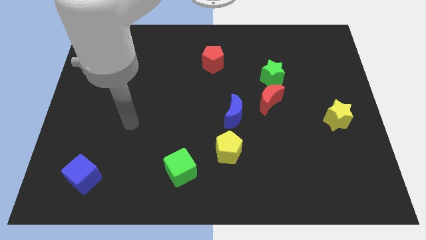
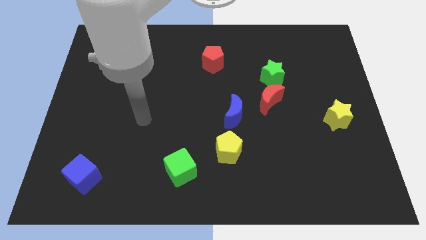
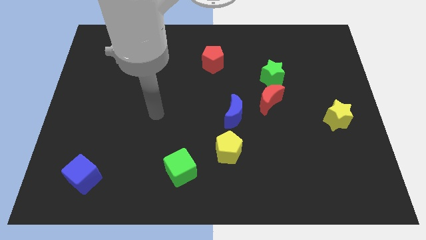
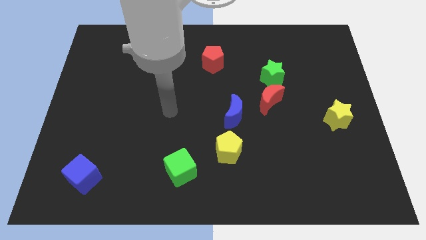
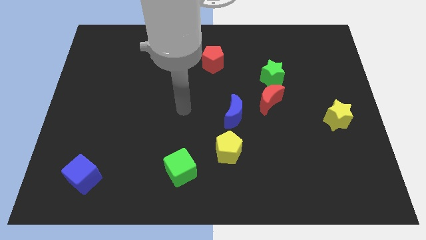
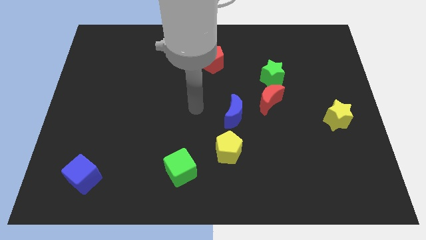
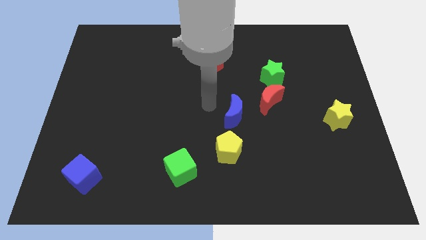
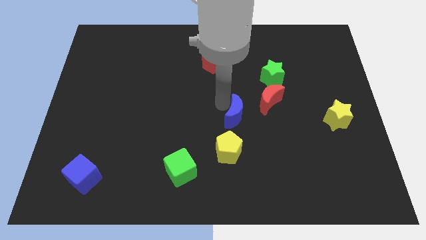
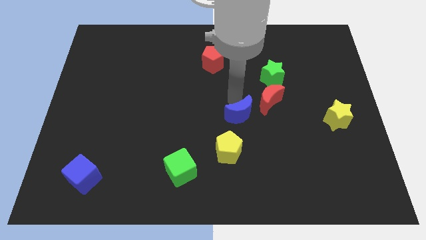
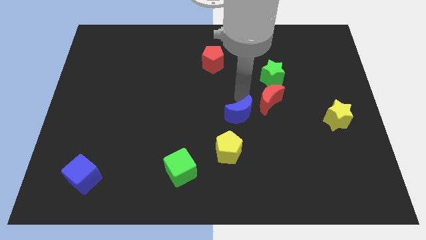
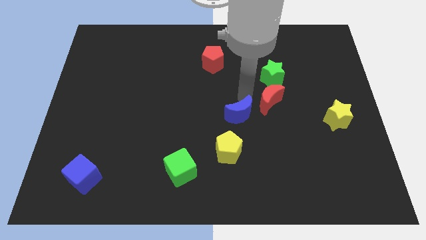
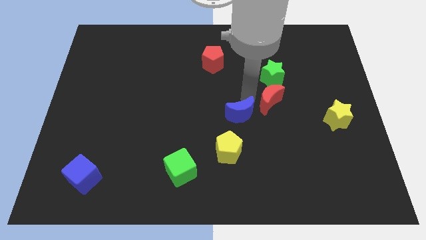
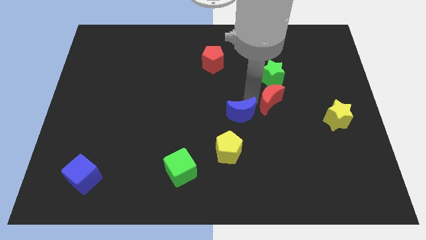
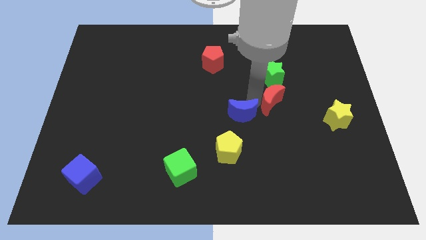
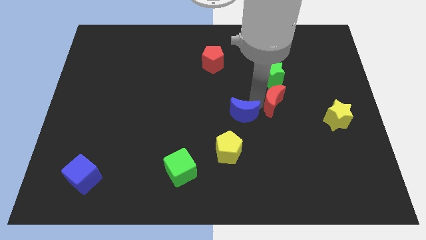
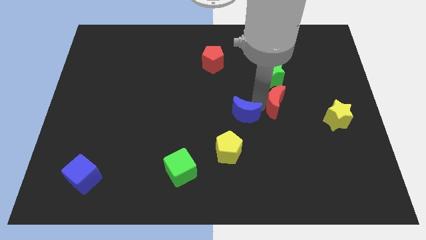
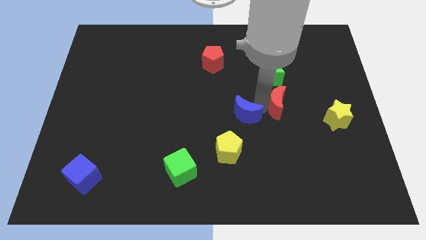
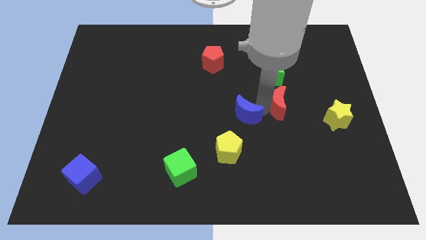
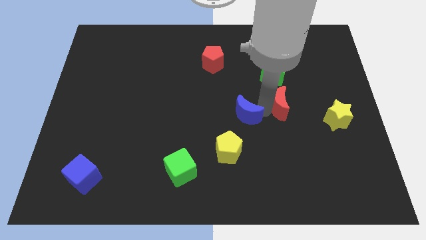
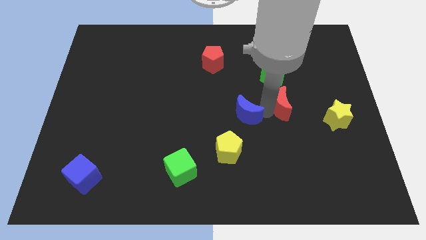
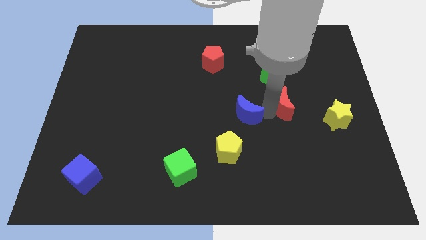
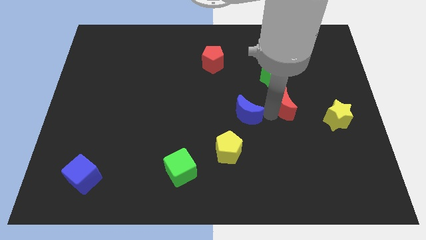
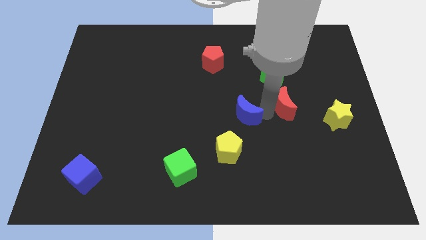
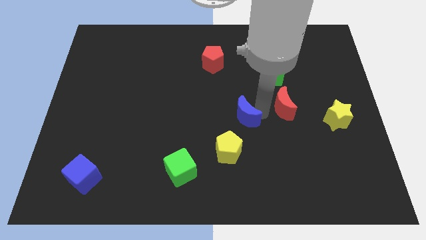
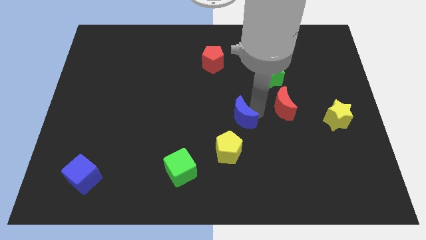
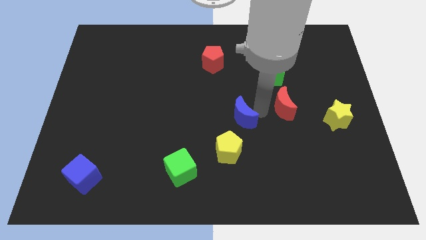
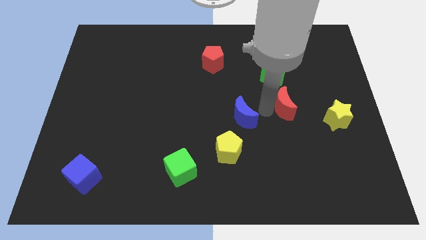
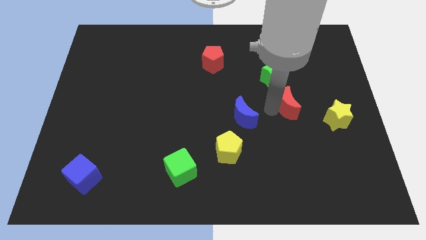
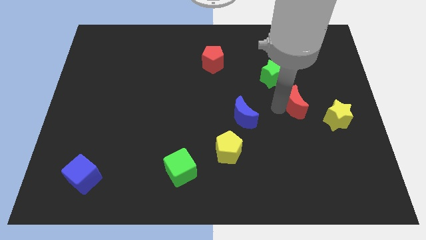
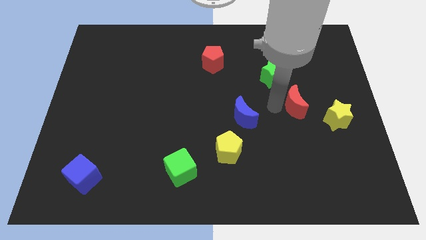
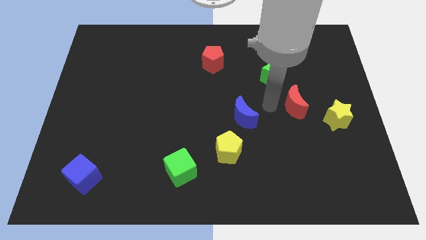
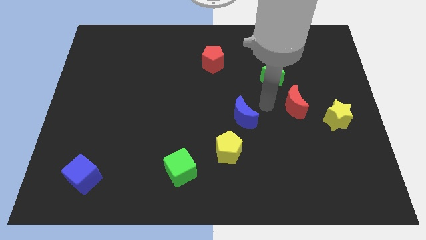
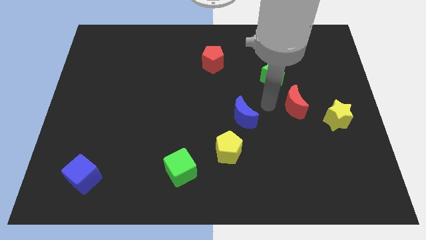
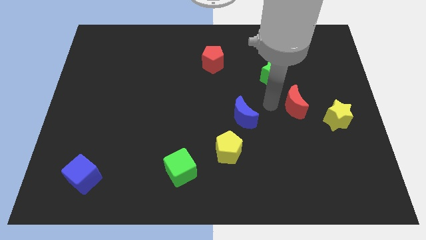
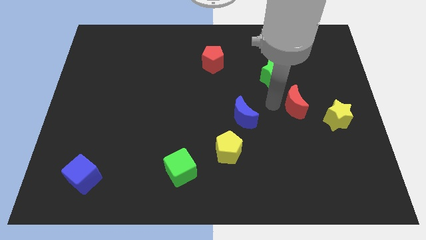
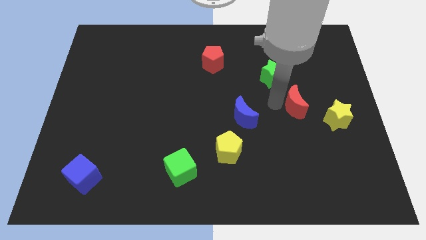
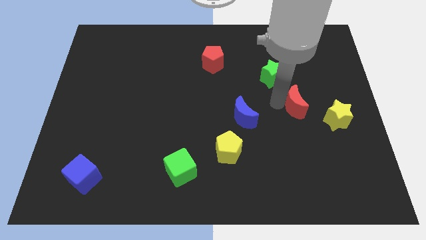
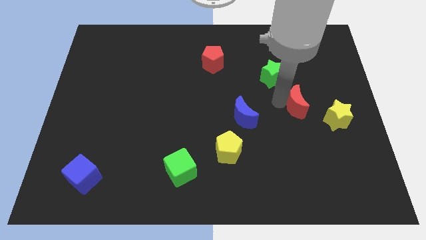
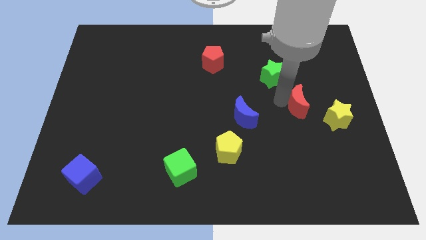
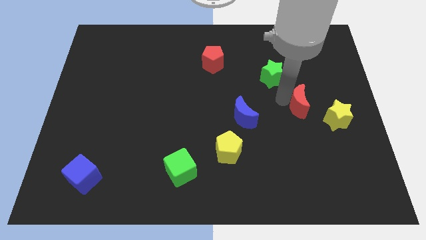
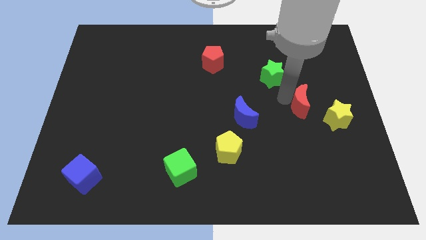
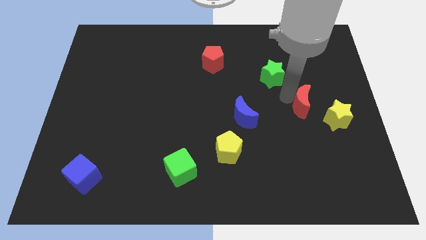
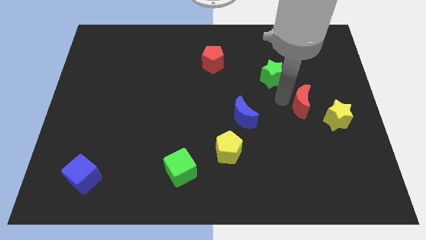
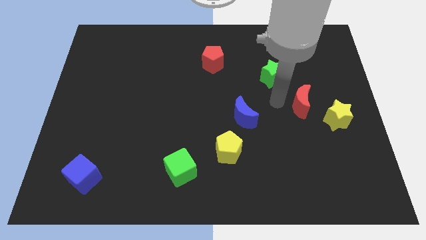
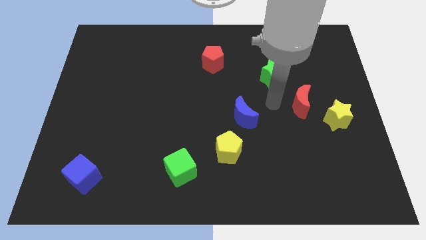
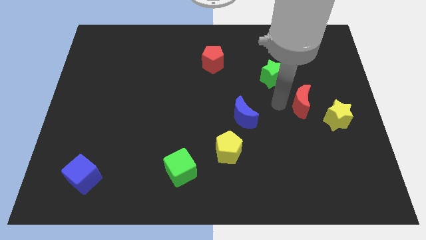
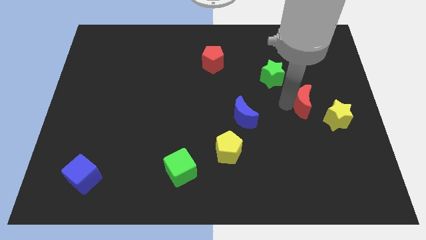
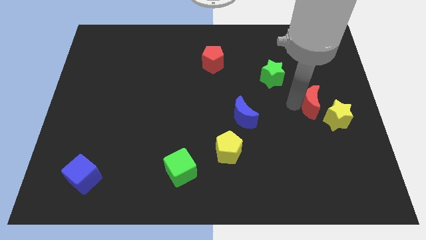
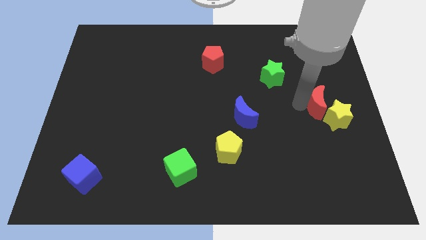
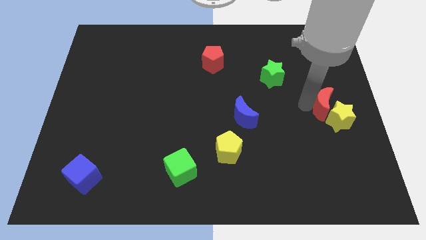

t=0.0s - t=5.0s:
put the red moon to the right side

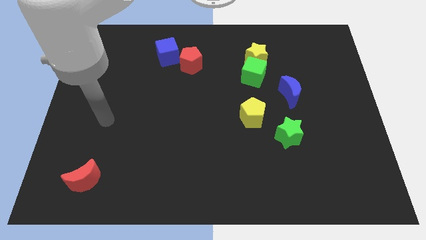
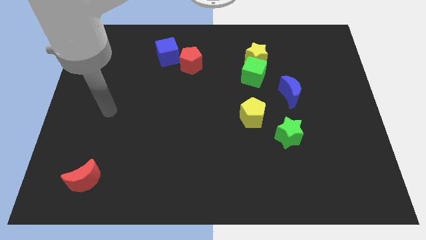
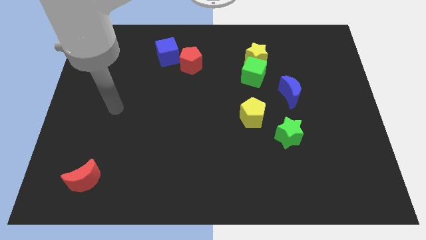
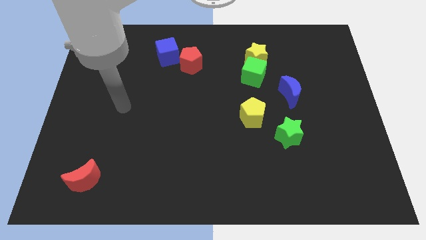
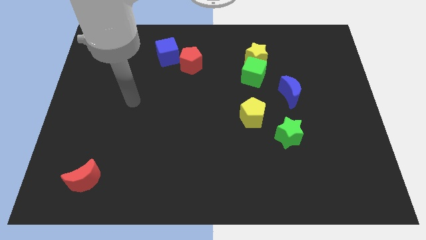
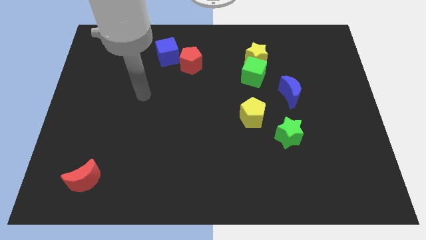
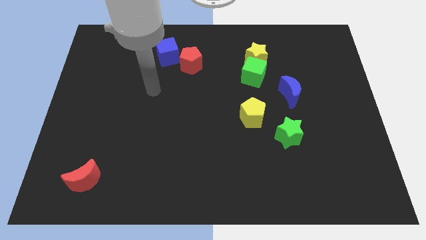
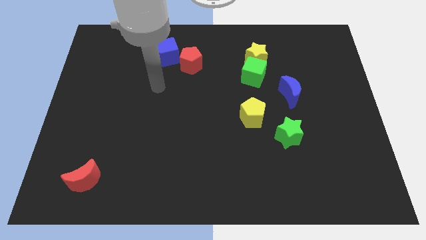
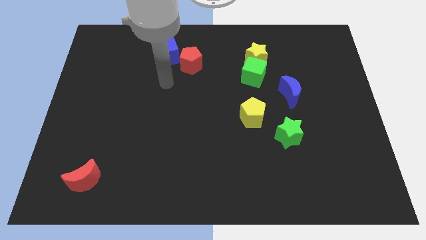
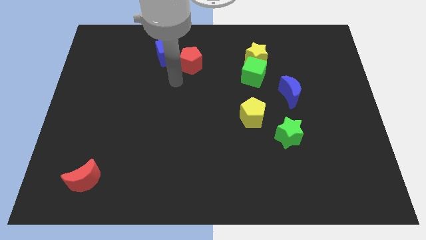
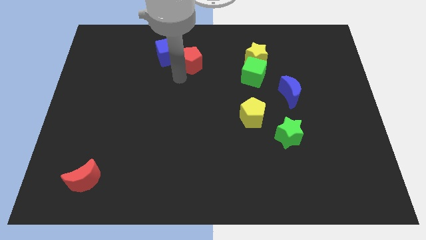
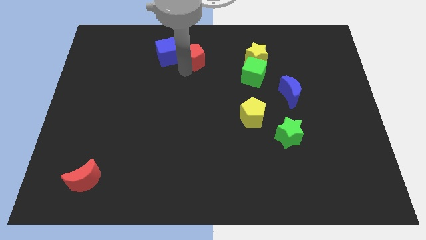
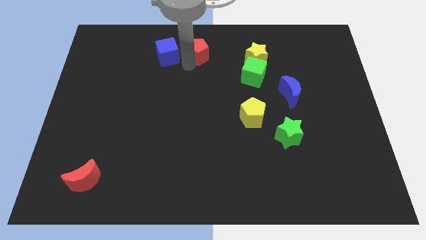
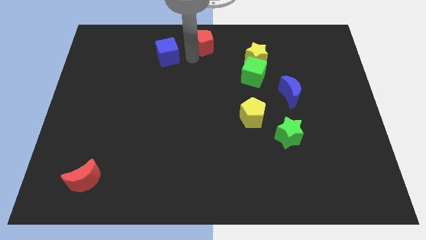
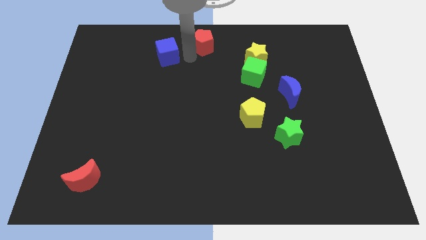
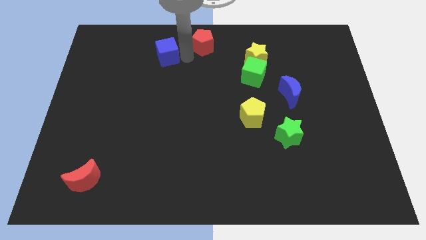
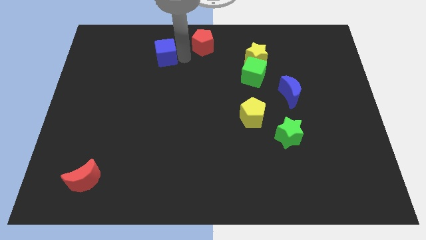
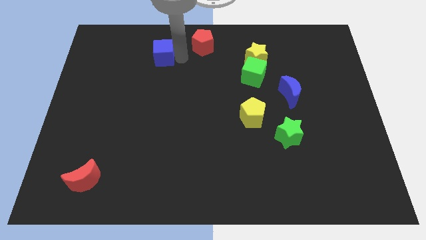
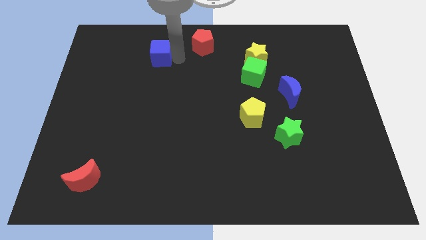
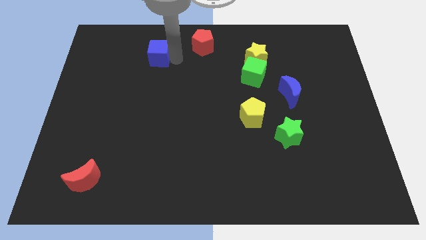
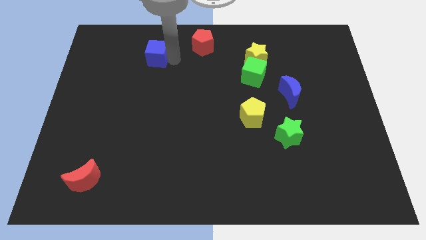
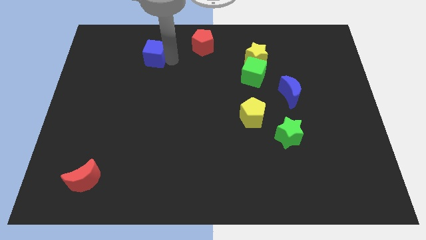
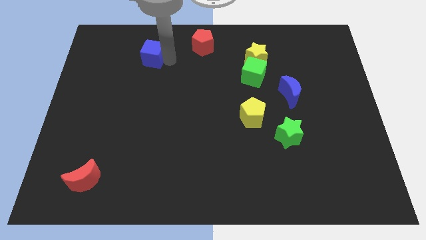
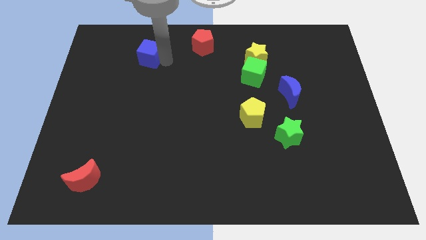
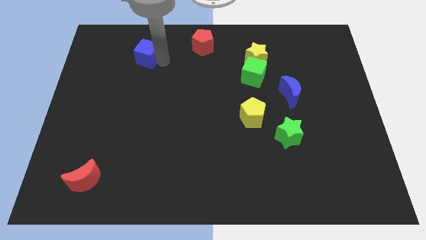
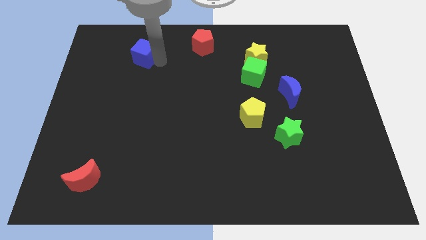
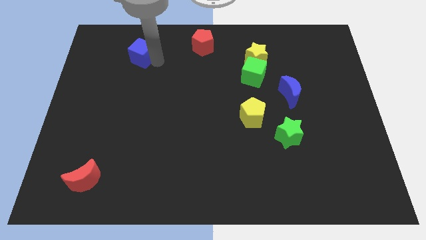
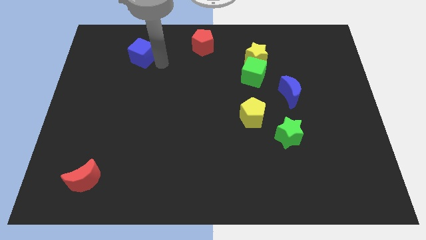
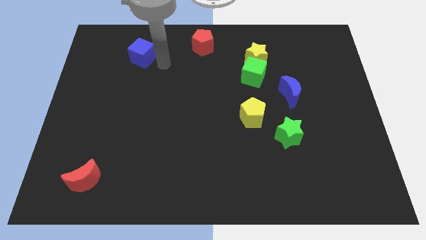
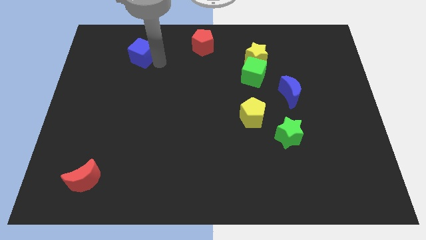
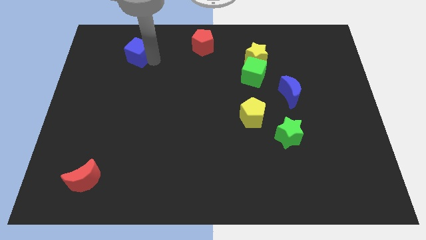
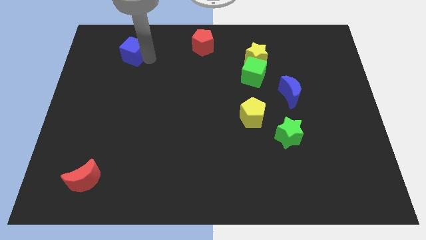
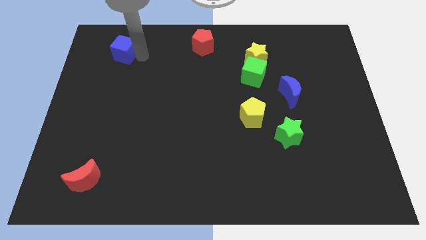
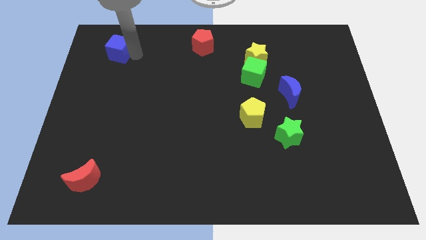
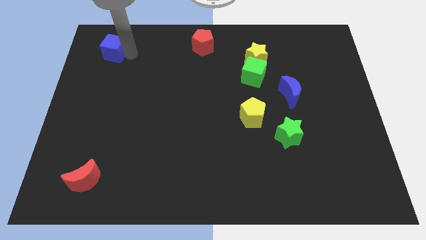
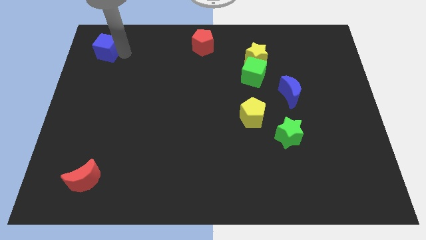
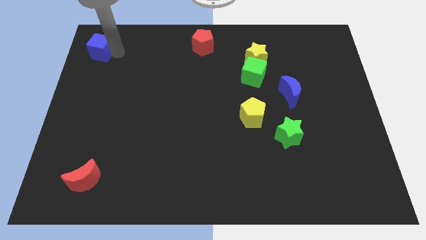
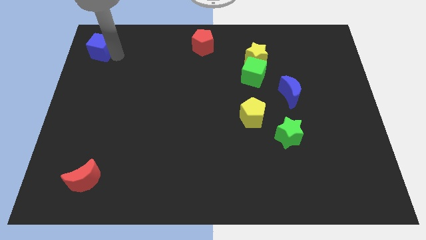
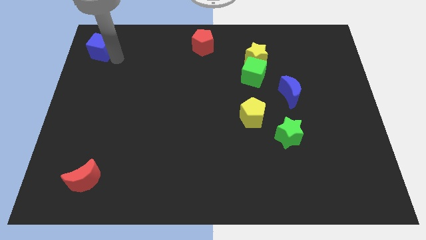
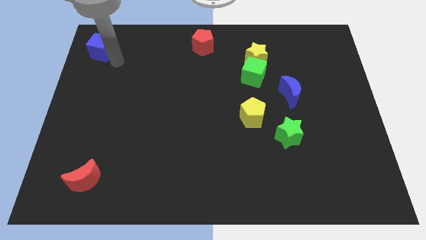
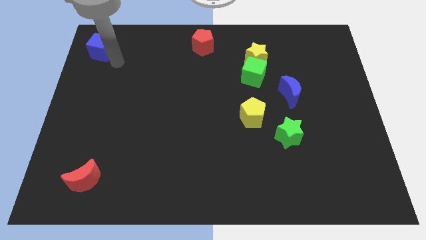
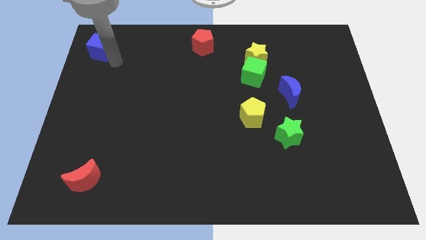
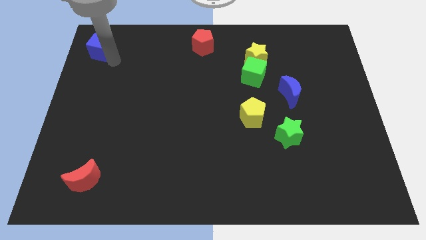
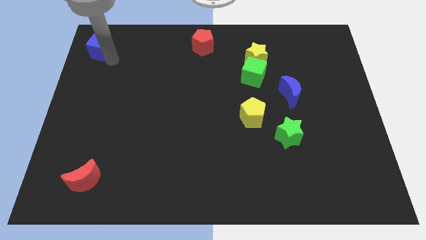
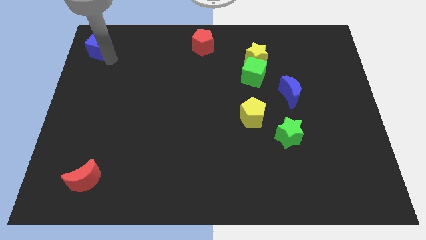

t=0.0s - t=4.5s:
push the blue cube to the upper left corner
